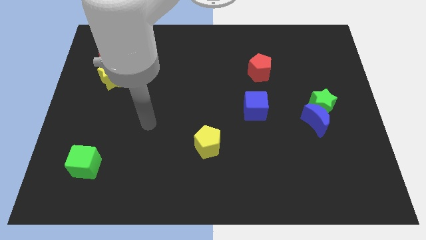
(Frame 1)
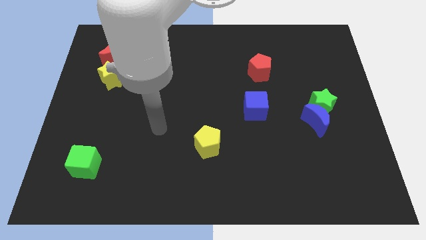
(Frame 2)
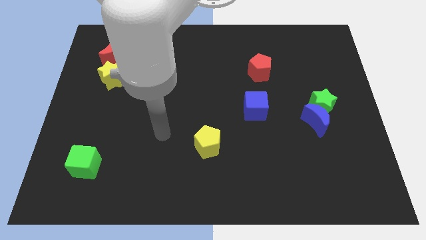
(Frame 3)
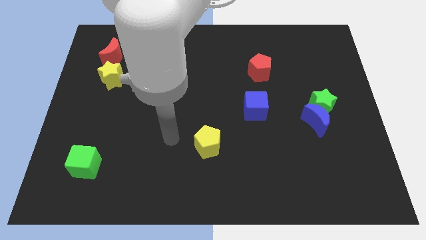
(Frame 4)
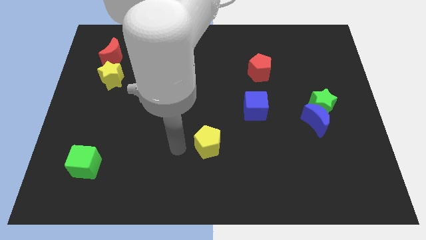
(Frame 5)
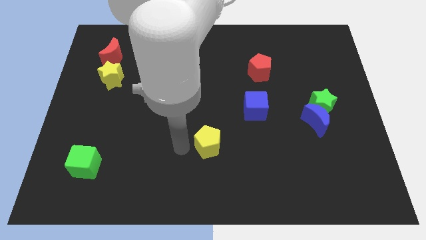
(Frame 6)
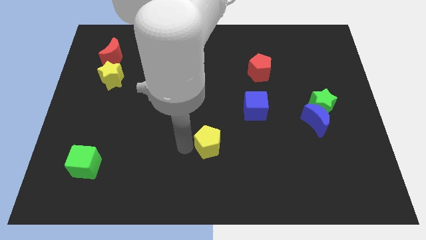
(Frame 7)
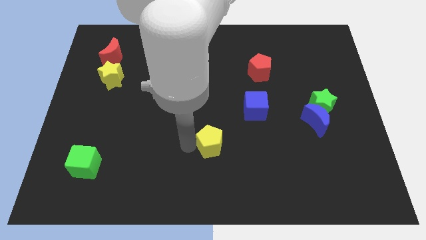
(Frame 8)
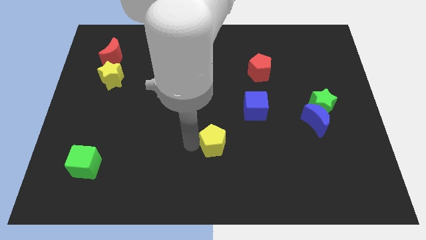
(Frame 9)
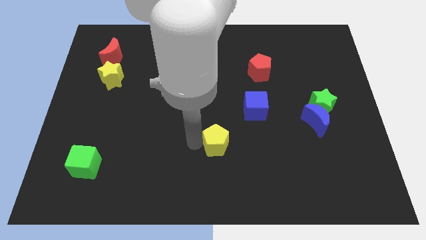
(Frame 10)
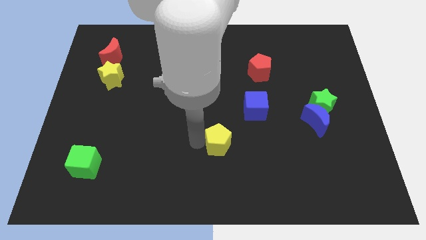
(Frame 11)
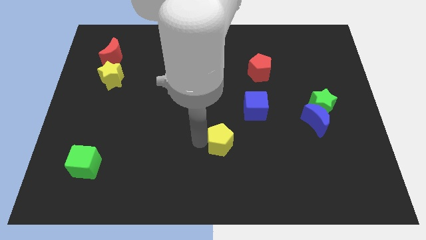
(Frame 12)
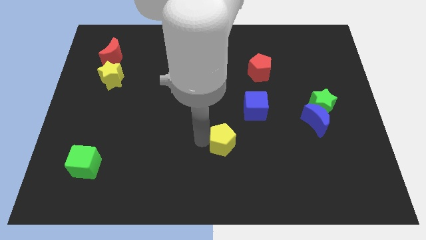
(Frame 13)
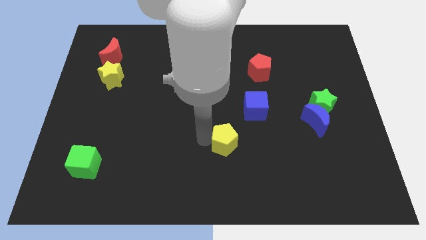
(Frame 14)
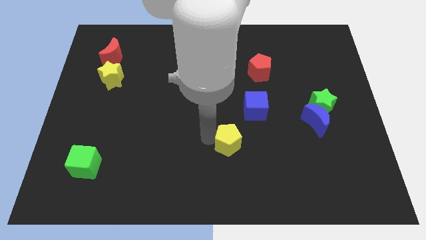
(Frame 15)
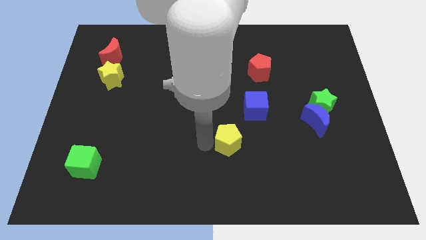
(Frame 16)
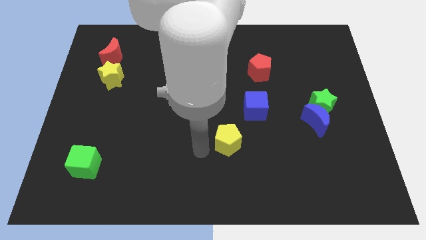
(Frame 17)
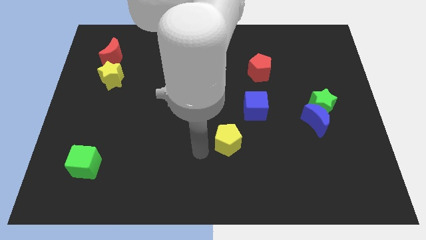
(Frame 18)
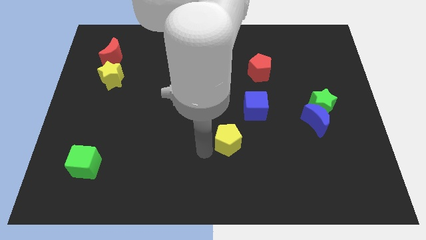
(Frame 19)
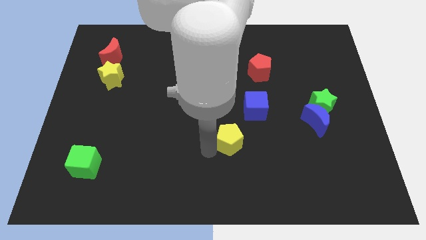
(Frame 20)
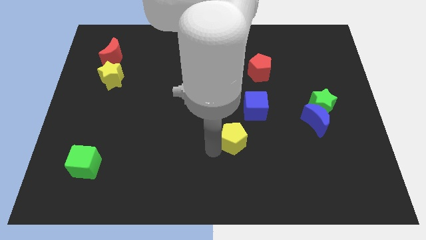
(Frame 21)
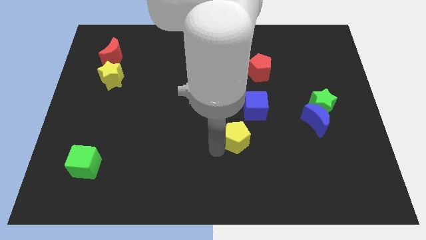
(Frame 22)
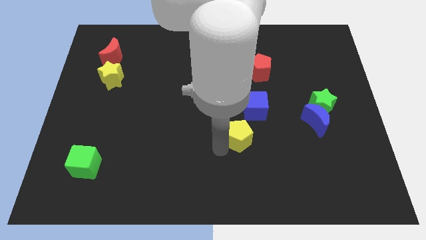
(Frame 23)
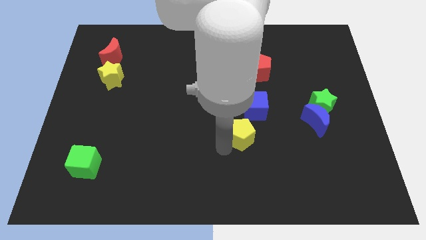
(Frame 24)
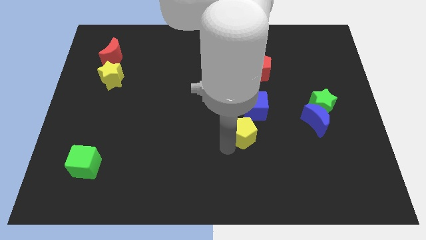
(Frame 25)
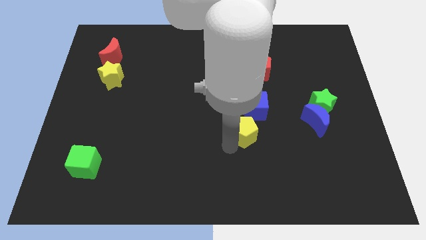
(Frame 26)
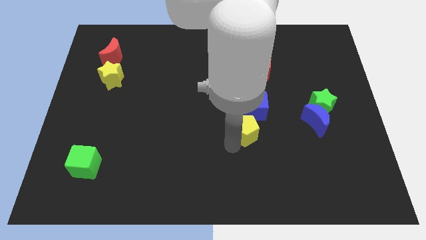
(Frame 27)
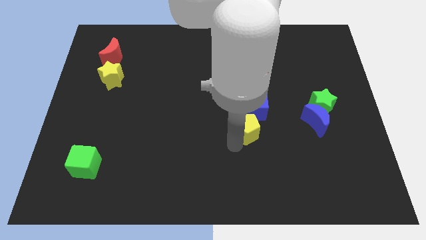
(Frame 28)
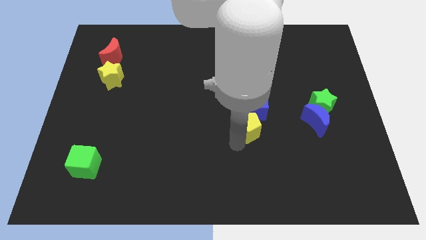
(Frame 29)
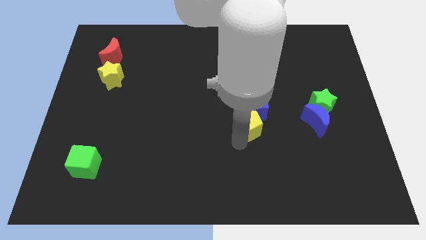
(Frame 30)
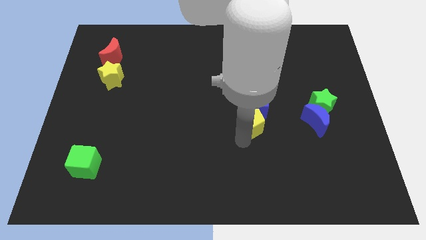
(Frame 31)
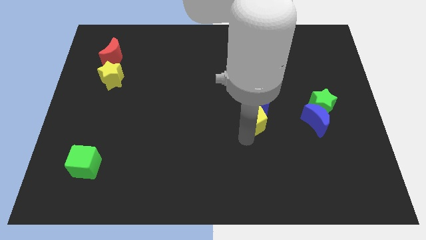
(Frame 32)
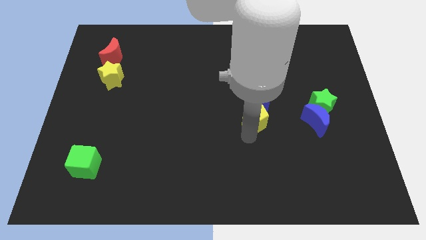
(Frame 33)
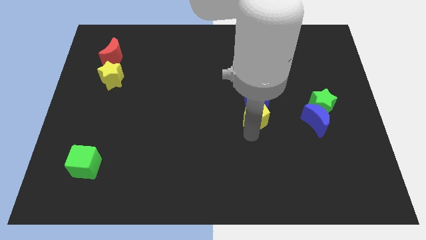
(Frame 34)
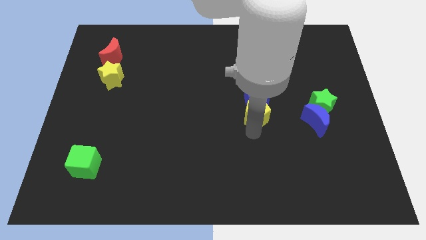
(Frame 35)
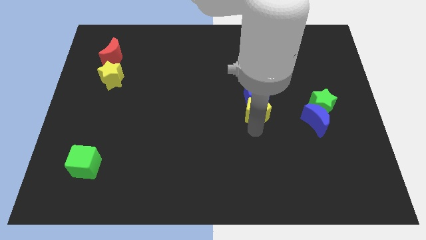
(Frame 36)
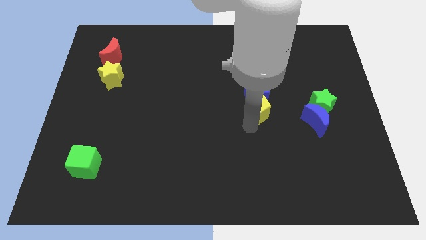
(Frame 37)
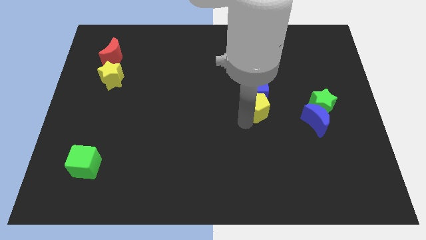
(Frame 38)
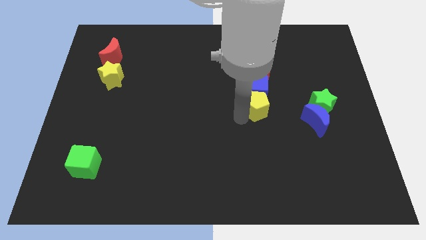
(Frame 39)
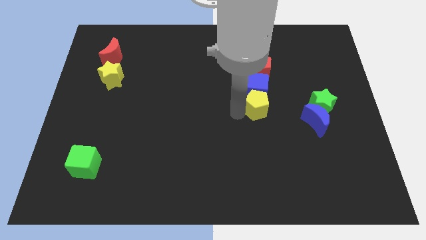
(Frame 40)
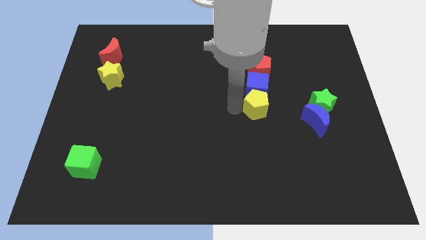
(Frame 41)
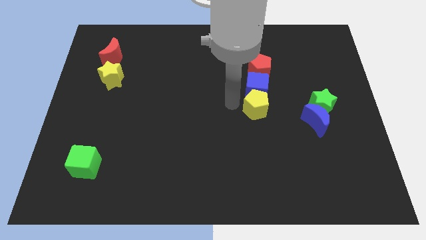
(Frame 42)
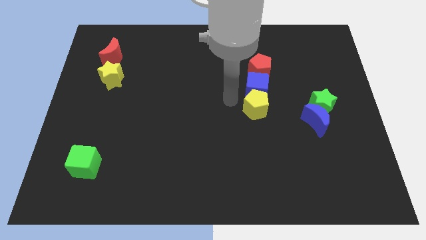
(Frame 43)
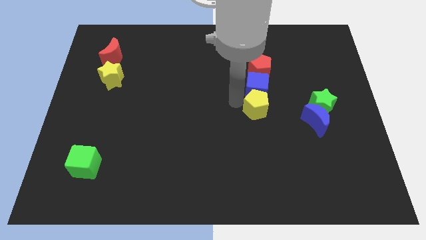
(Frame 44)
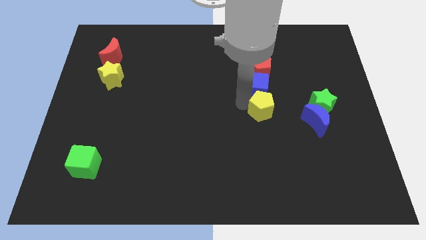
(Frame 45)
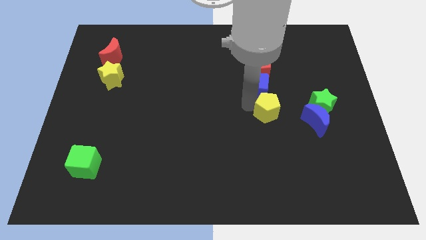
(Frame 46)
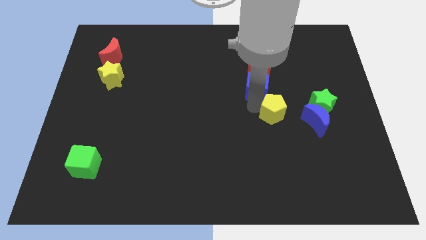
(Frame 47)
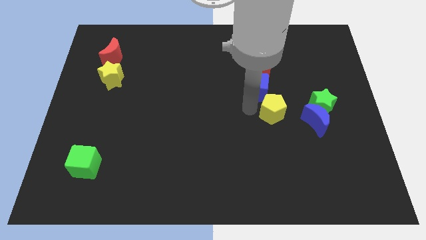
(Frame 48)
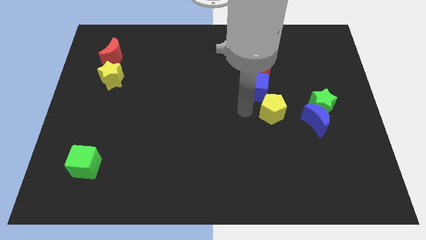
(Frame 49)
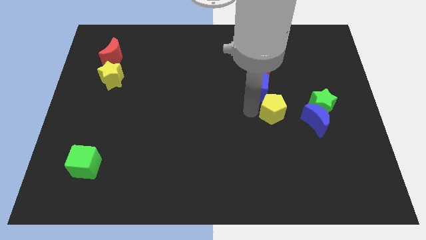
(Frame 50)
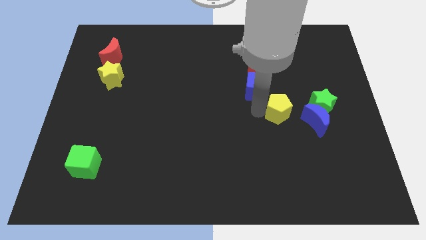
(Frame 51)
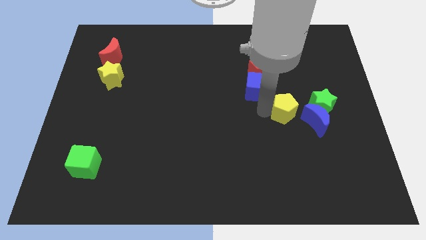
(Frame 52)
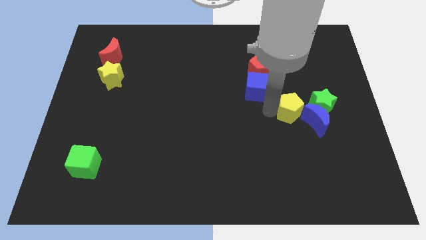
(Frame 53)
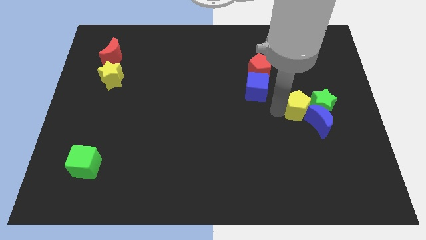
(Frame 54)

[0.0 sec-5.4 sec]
push the yellow pentagon next to the green star

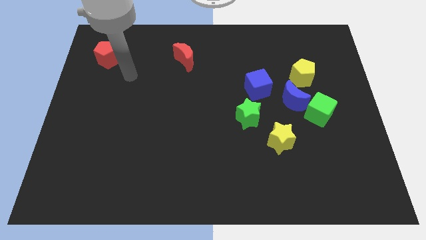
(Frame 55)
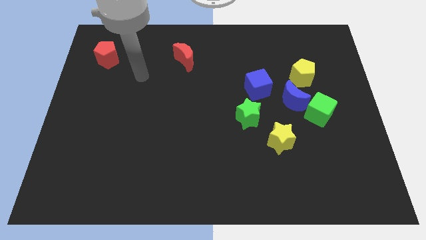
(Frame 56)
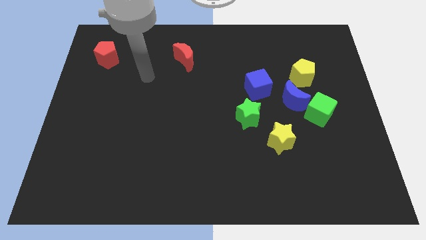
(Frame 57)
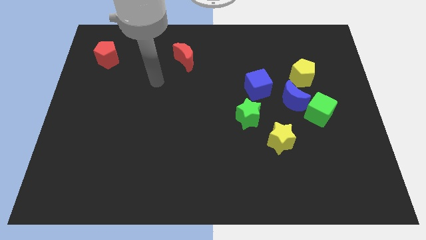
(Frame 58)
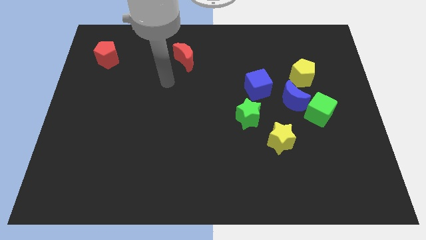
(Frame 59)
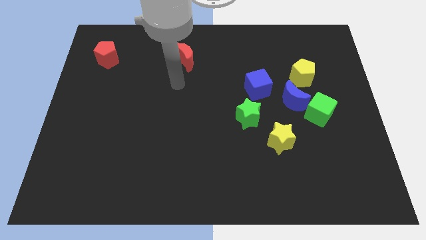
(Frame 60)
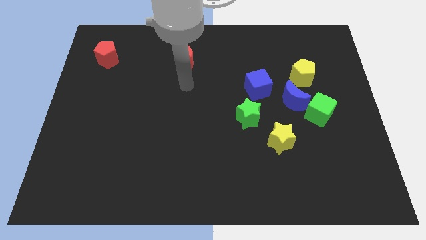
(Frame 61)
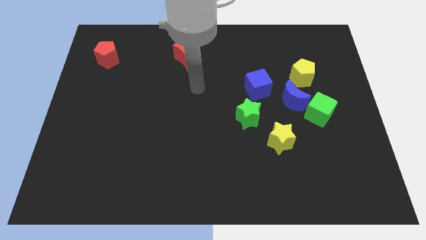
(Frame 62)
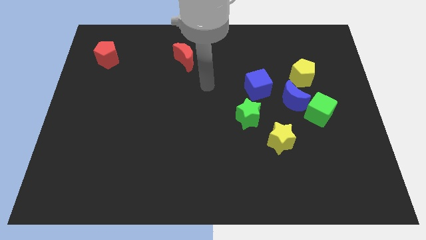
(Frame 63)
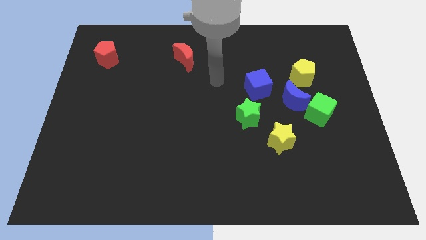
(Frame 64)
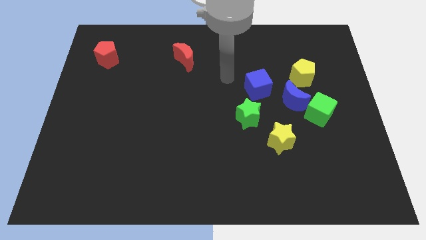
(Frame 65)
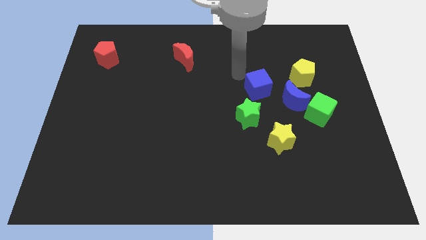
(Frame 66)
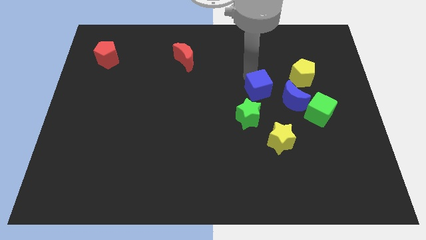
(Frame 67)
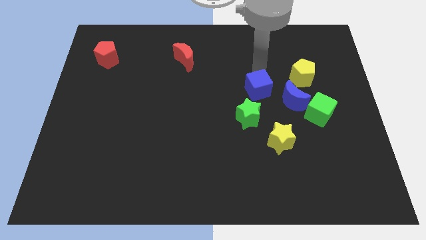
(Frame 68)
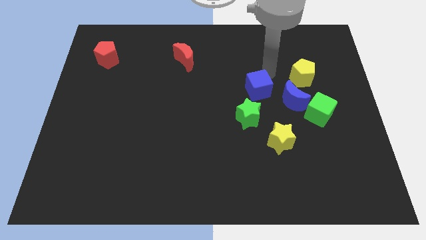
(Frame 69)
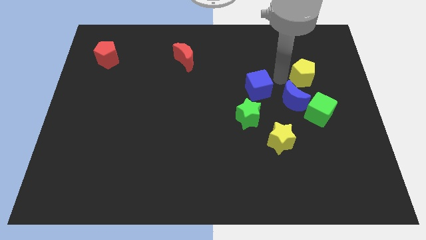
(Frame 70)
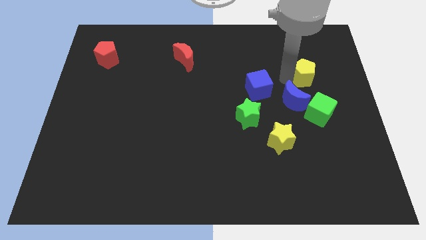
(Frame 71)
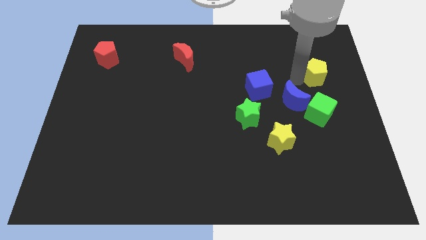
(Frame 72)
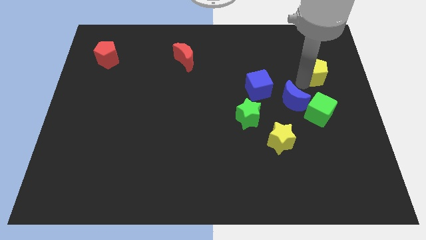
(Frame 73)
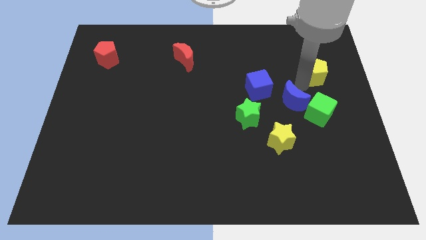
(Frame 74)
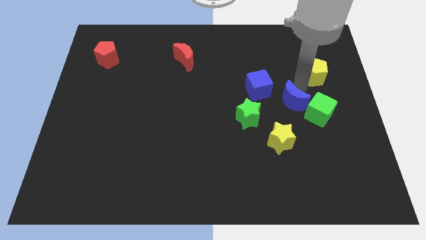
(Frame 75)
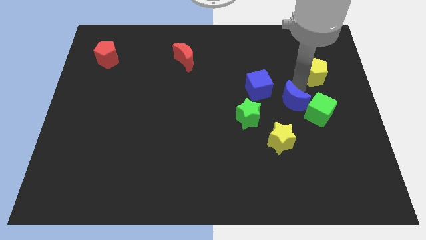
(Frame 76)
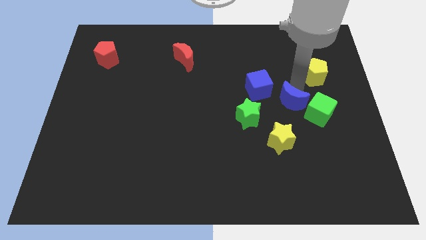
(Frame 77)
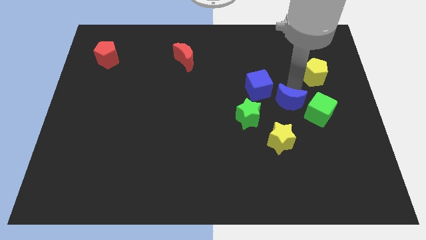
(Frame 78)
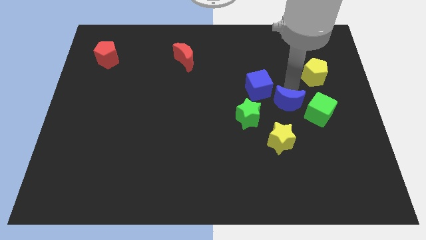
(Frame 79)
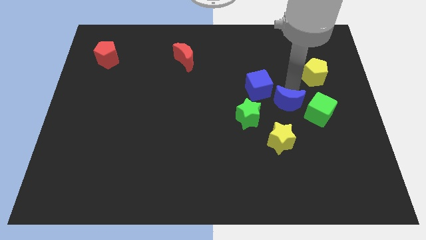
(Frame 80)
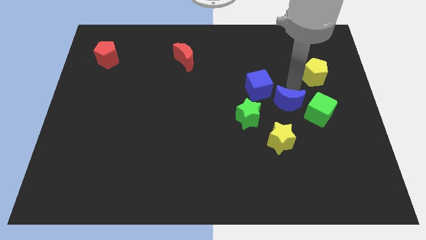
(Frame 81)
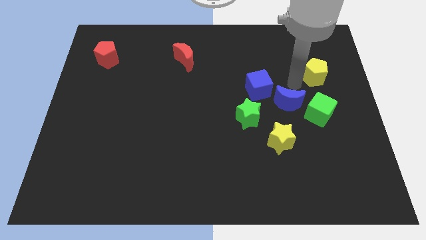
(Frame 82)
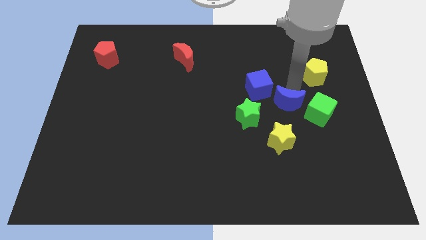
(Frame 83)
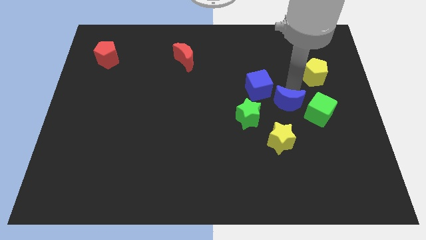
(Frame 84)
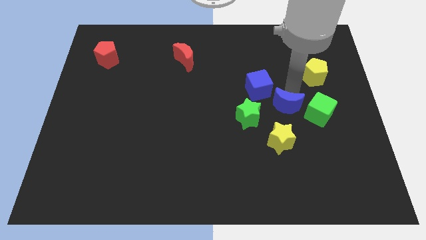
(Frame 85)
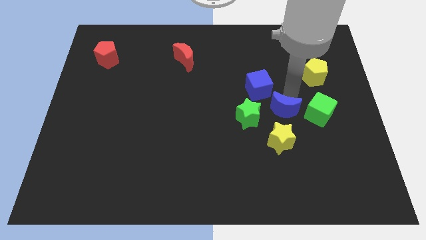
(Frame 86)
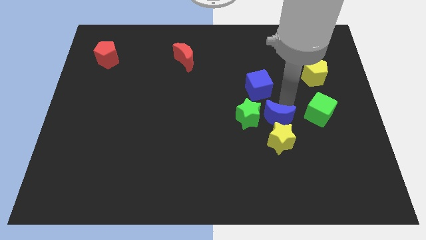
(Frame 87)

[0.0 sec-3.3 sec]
slide the blue moon close to the yellow star
